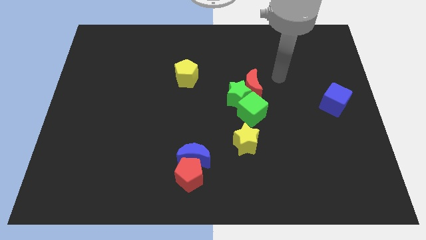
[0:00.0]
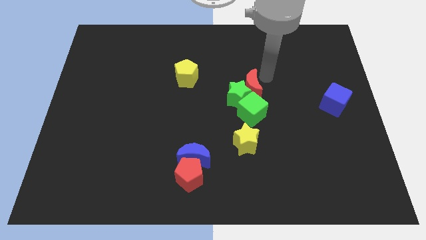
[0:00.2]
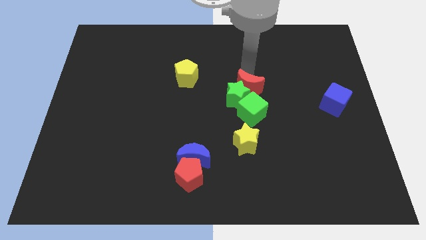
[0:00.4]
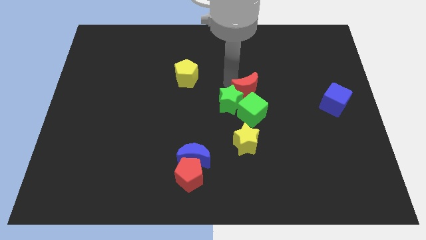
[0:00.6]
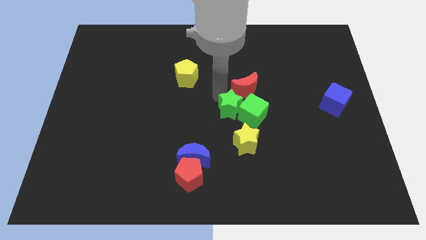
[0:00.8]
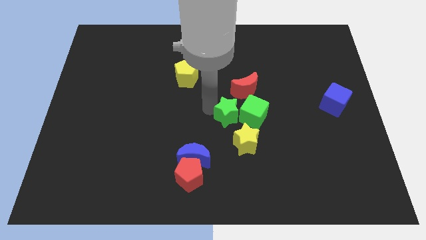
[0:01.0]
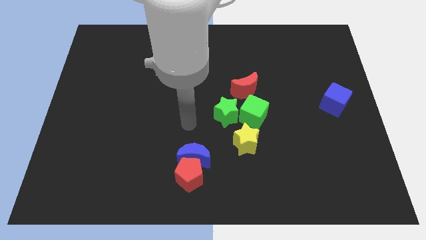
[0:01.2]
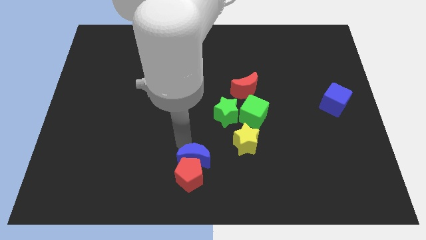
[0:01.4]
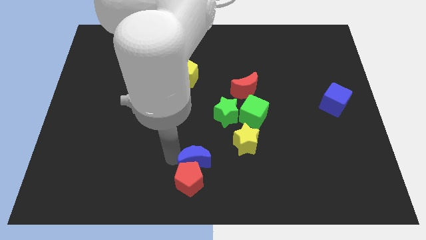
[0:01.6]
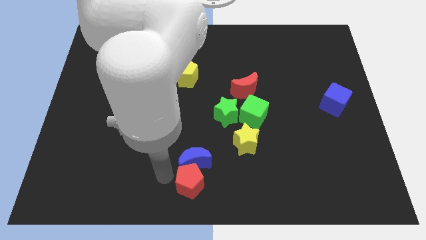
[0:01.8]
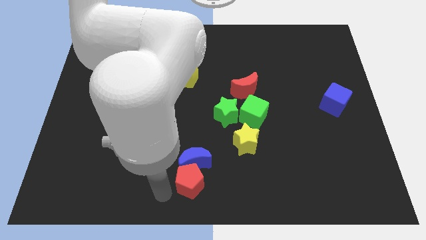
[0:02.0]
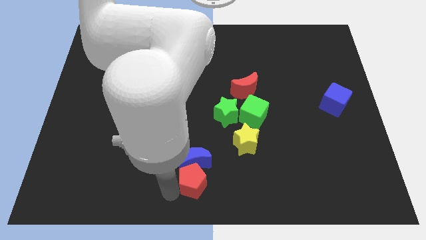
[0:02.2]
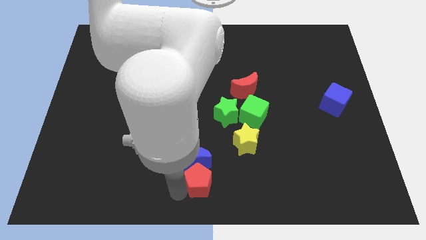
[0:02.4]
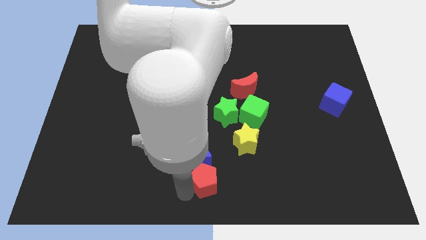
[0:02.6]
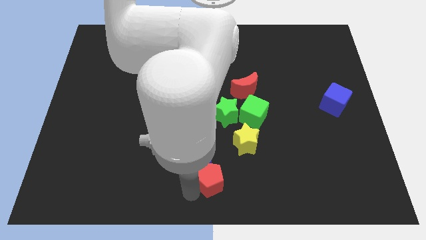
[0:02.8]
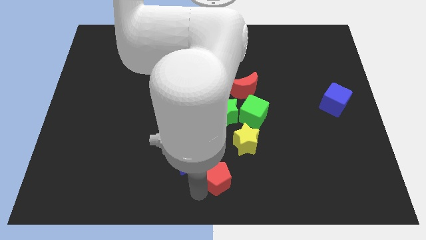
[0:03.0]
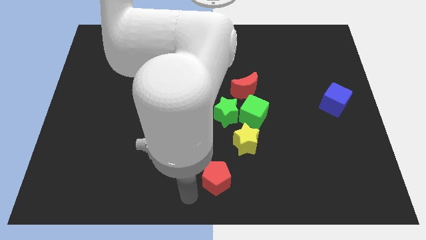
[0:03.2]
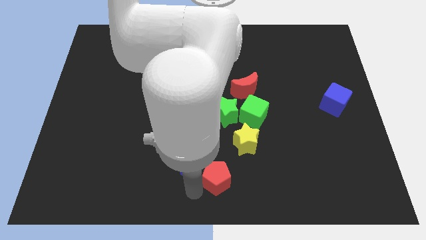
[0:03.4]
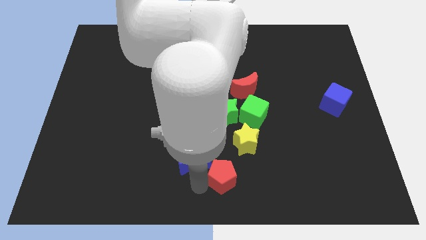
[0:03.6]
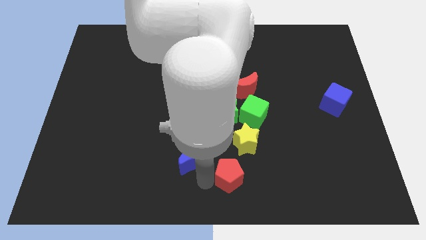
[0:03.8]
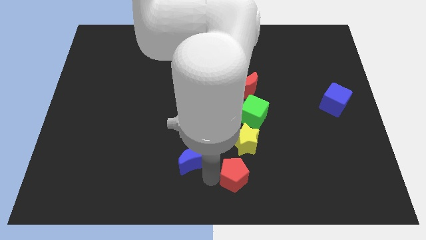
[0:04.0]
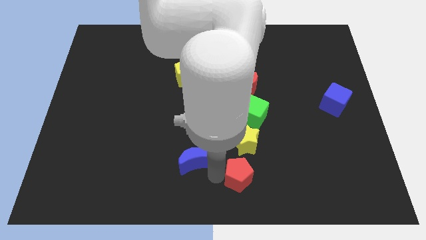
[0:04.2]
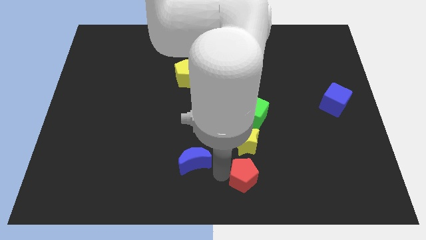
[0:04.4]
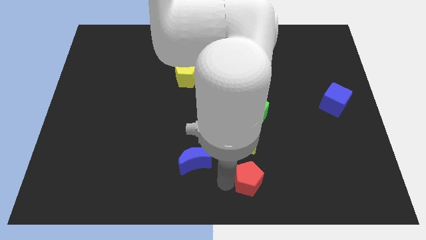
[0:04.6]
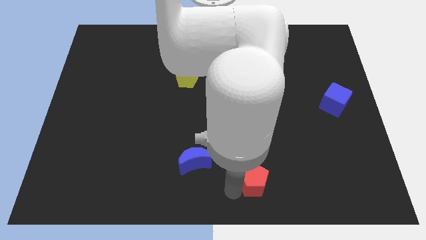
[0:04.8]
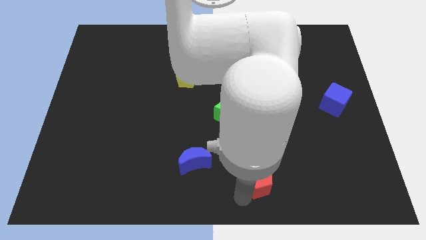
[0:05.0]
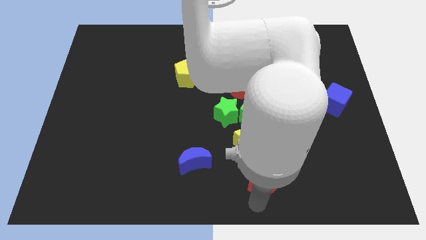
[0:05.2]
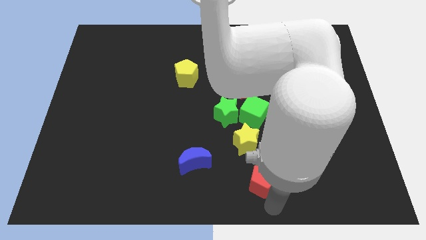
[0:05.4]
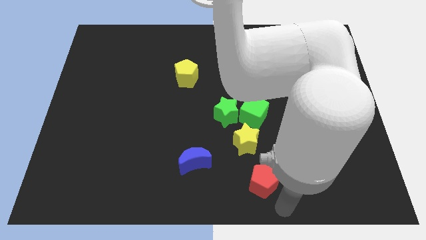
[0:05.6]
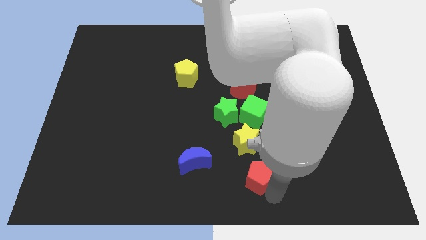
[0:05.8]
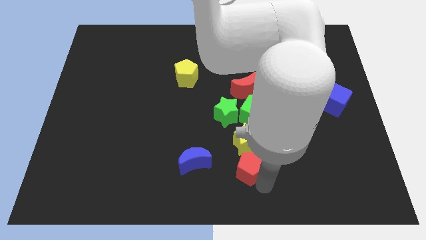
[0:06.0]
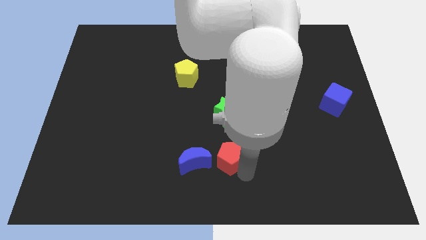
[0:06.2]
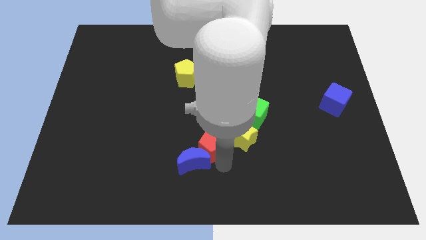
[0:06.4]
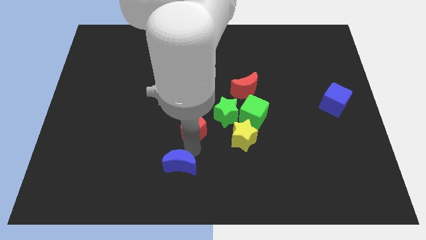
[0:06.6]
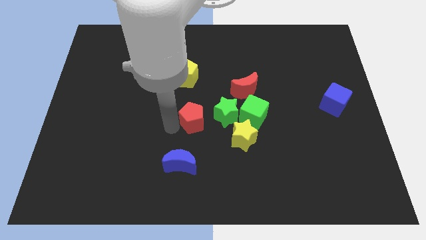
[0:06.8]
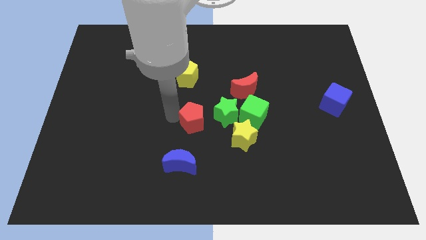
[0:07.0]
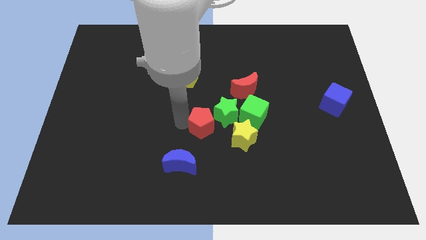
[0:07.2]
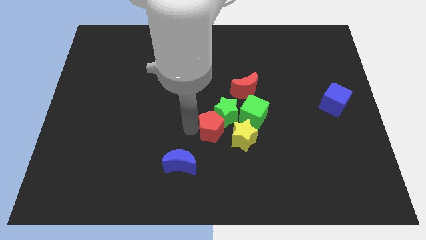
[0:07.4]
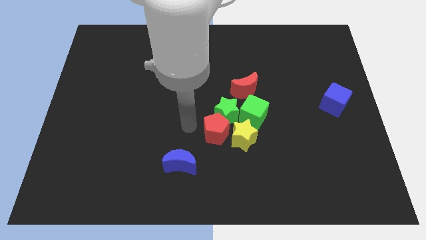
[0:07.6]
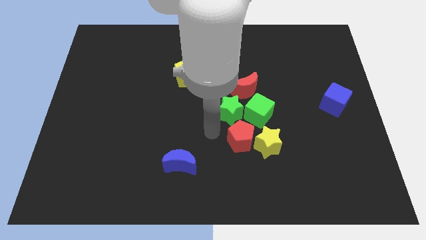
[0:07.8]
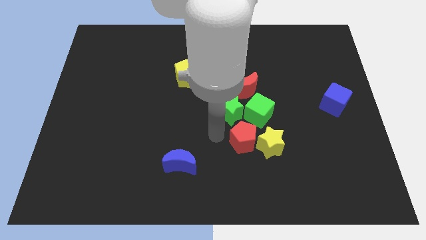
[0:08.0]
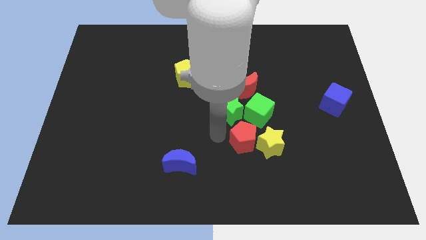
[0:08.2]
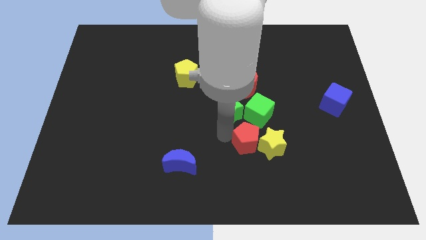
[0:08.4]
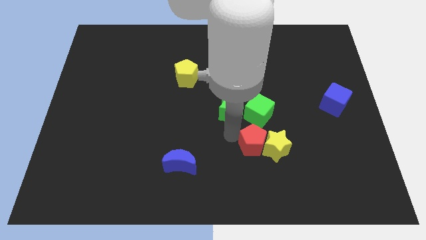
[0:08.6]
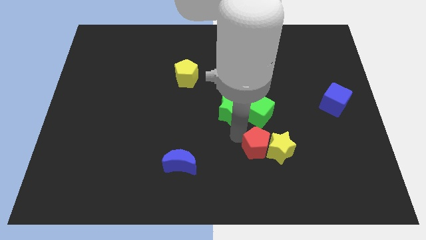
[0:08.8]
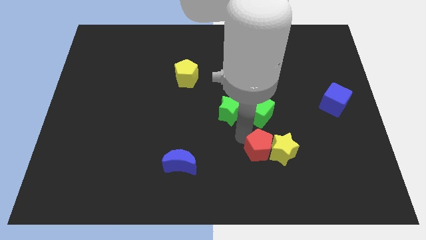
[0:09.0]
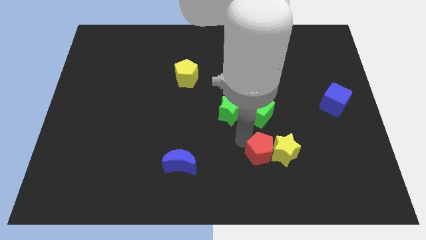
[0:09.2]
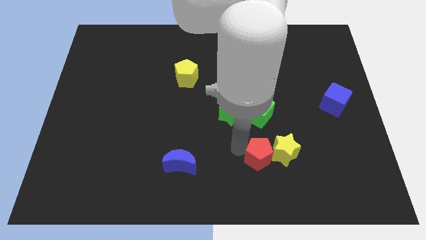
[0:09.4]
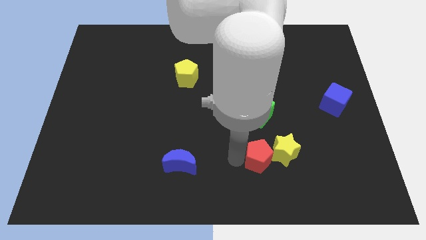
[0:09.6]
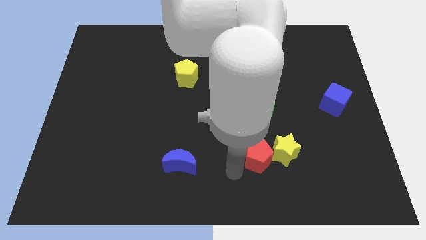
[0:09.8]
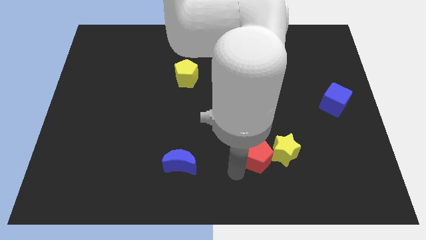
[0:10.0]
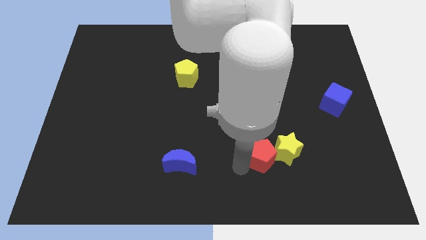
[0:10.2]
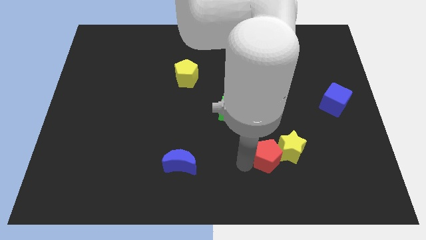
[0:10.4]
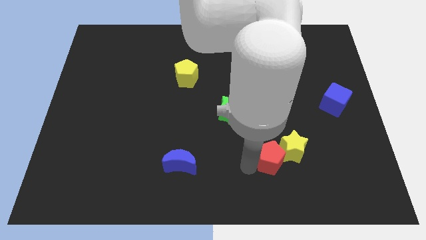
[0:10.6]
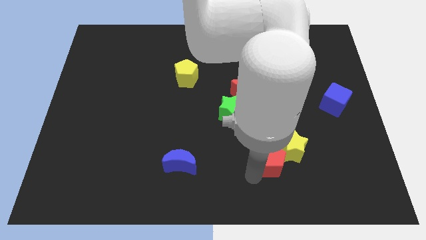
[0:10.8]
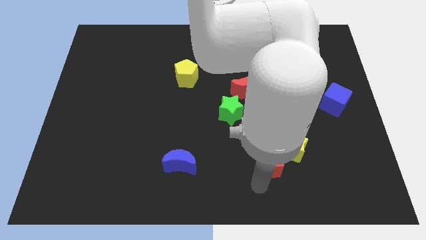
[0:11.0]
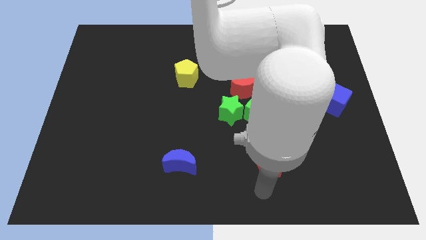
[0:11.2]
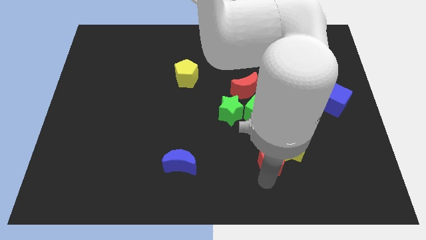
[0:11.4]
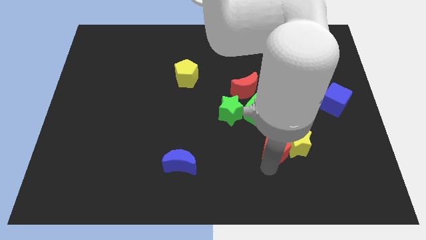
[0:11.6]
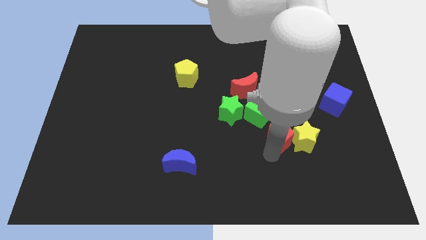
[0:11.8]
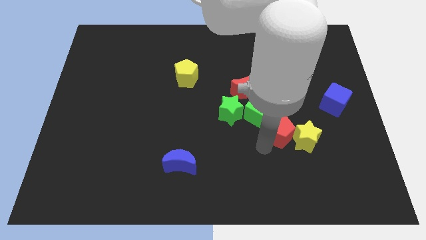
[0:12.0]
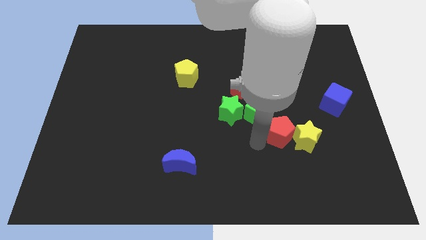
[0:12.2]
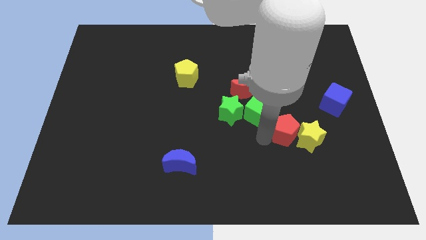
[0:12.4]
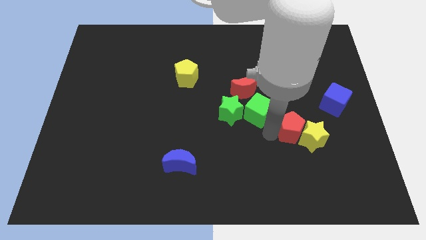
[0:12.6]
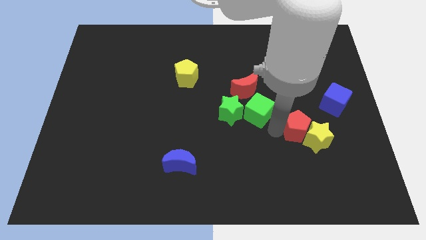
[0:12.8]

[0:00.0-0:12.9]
put the red pentagon diagonally down and to the left of the blue cube

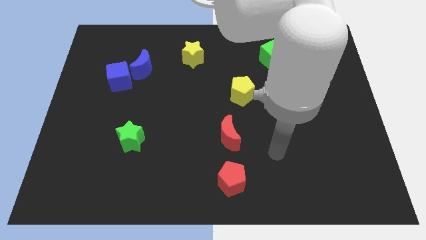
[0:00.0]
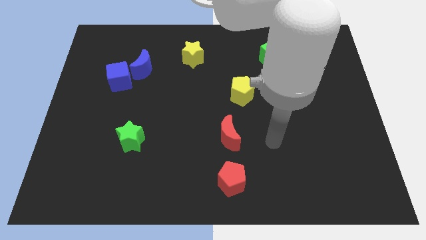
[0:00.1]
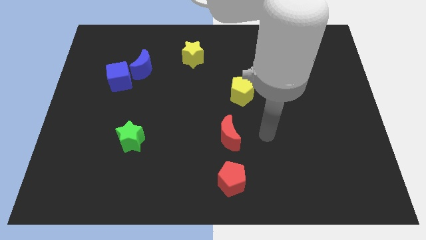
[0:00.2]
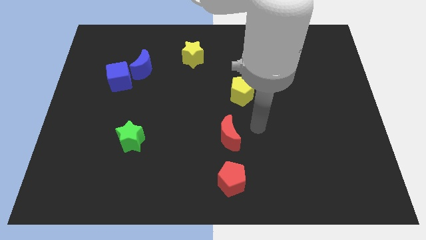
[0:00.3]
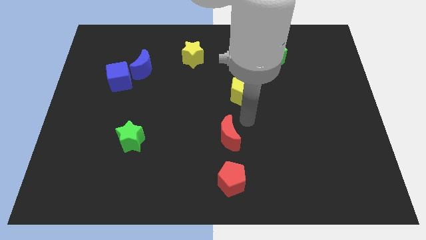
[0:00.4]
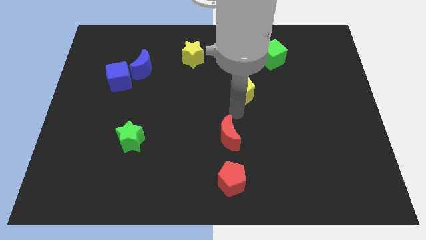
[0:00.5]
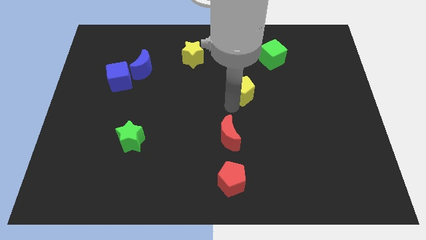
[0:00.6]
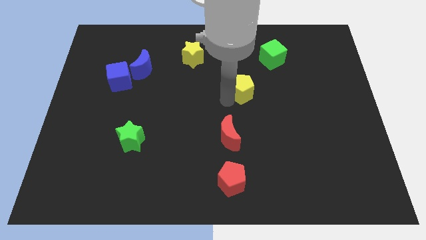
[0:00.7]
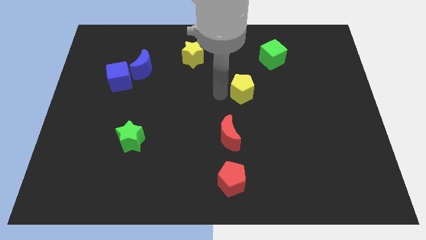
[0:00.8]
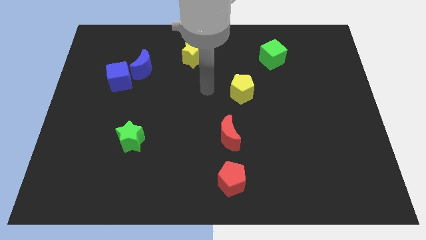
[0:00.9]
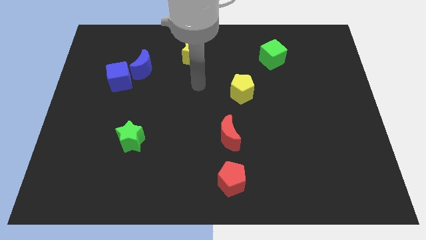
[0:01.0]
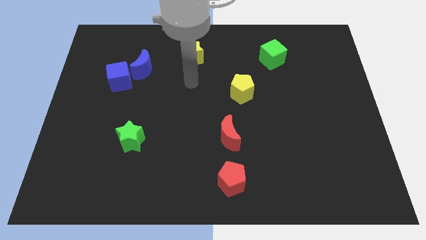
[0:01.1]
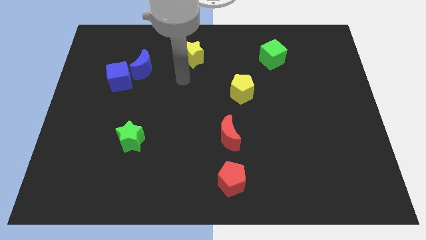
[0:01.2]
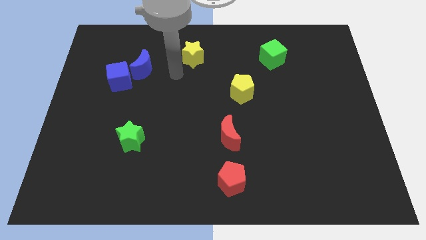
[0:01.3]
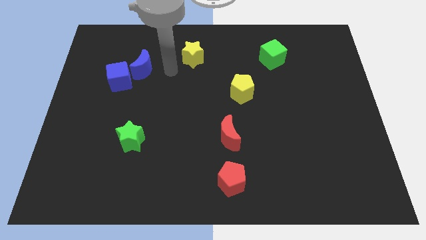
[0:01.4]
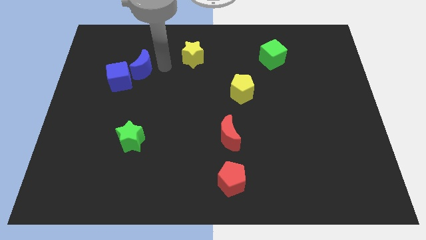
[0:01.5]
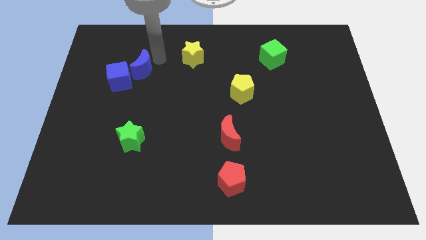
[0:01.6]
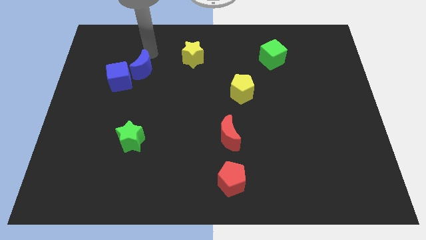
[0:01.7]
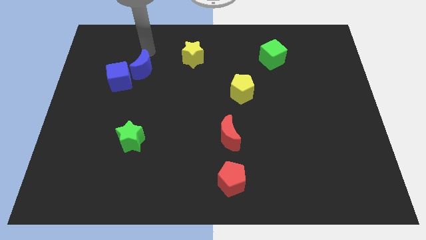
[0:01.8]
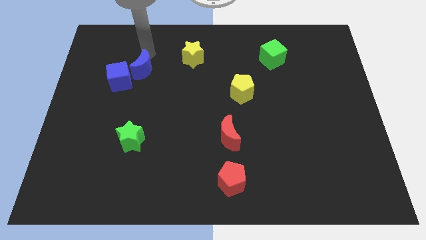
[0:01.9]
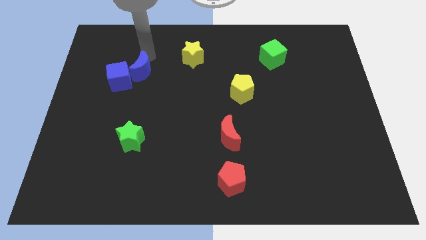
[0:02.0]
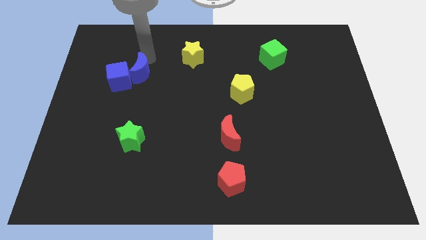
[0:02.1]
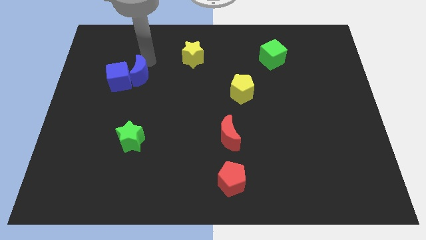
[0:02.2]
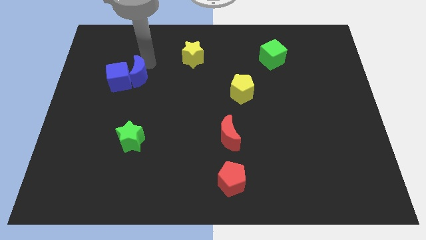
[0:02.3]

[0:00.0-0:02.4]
move the blue moon diagonally down and to the right of the blue cube
